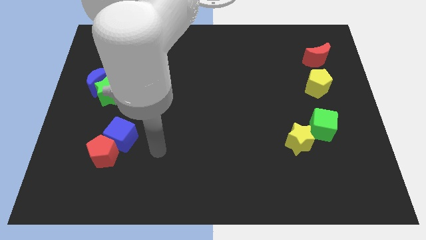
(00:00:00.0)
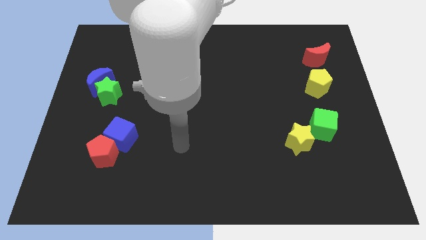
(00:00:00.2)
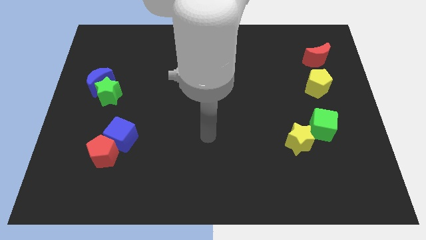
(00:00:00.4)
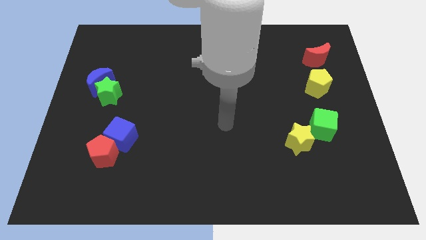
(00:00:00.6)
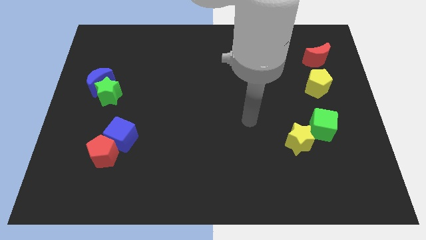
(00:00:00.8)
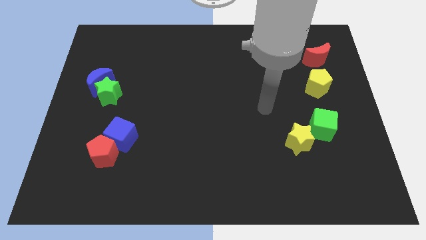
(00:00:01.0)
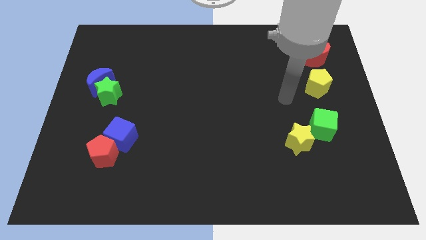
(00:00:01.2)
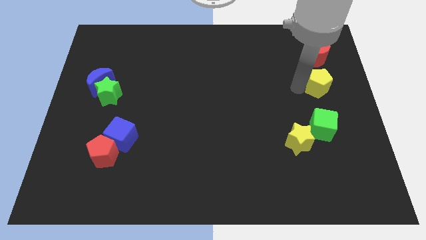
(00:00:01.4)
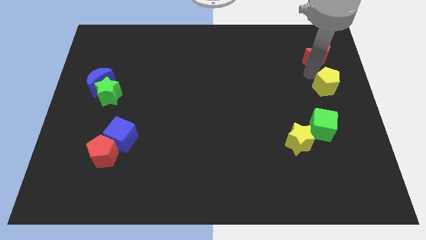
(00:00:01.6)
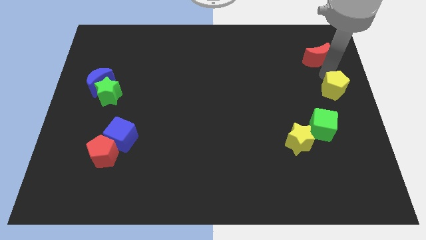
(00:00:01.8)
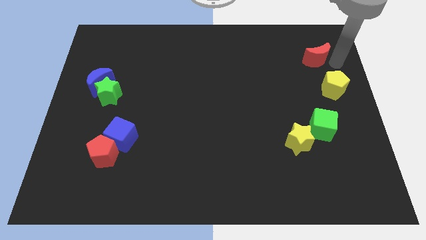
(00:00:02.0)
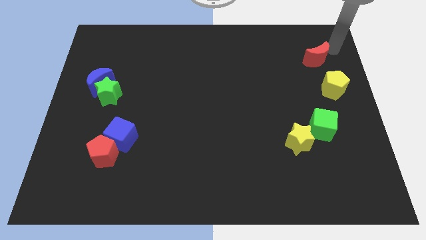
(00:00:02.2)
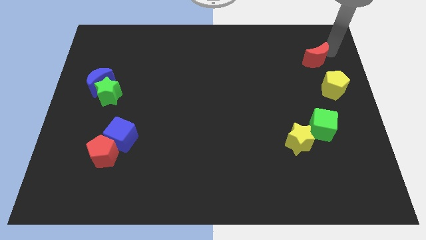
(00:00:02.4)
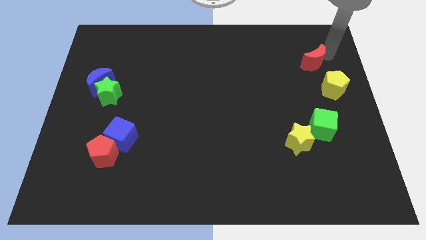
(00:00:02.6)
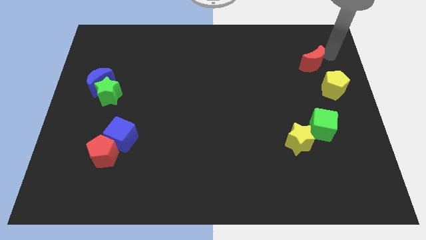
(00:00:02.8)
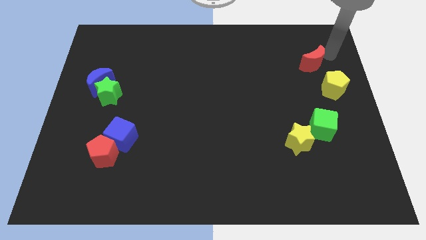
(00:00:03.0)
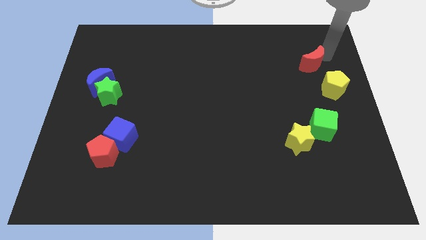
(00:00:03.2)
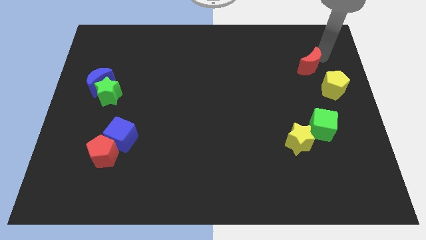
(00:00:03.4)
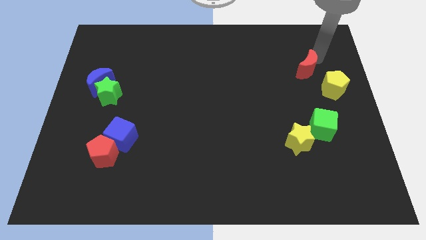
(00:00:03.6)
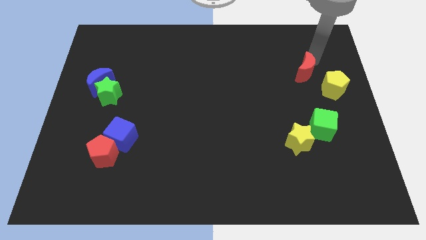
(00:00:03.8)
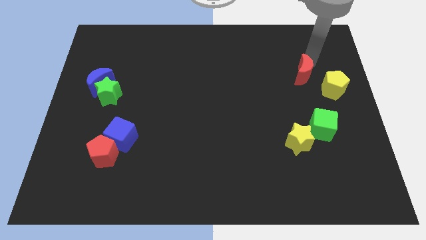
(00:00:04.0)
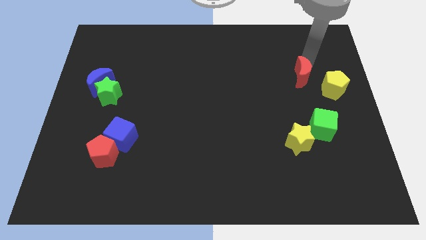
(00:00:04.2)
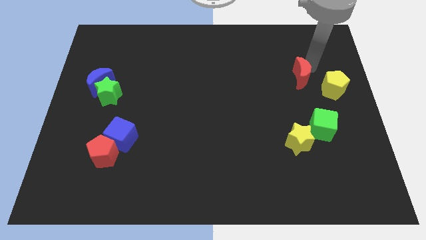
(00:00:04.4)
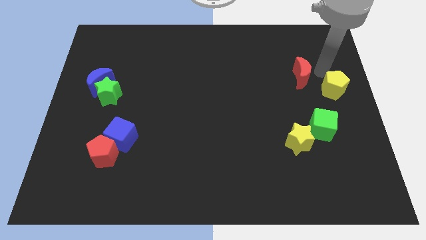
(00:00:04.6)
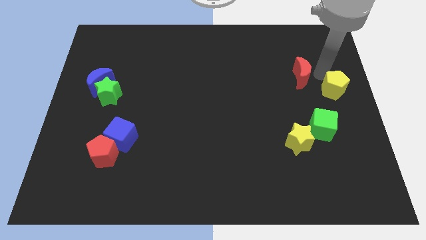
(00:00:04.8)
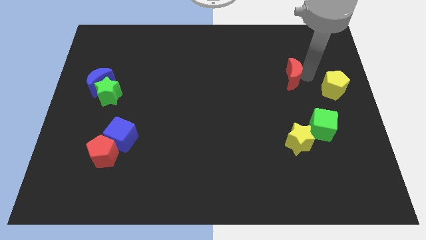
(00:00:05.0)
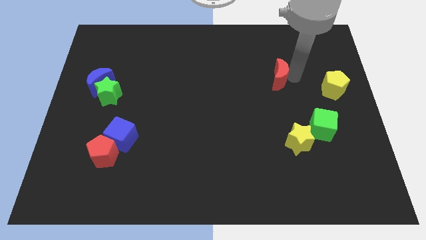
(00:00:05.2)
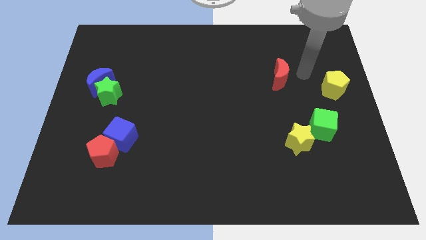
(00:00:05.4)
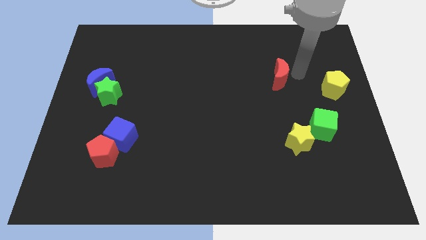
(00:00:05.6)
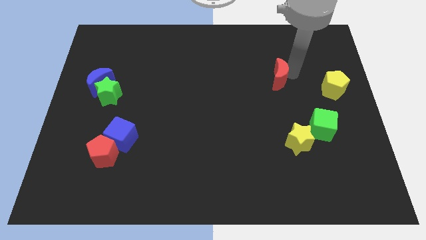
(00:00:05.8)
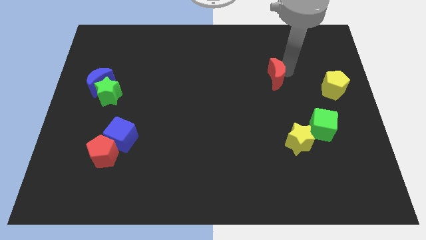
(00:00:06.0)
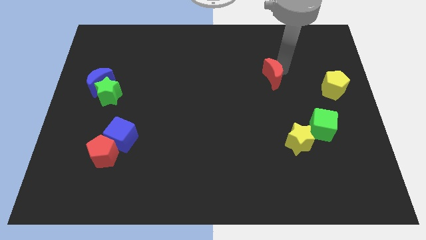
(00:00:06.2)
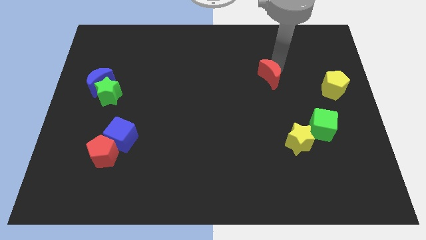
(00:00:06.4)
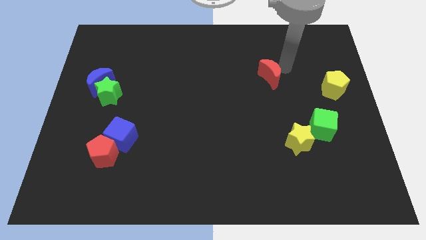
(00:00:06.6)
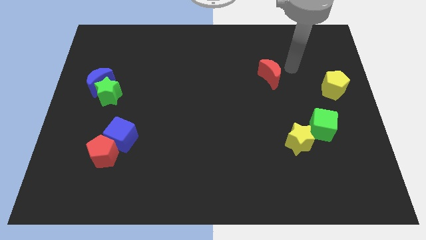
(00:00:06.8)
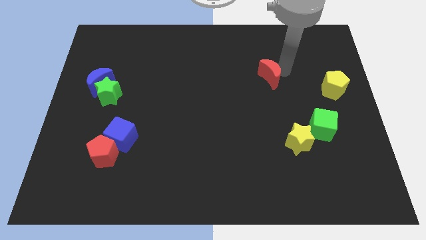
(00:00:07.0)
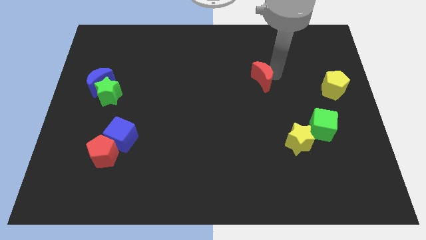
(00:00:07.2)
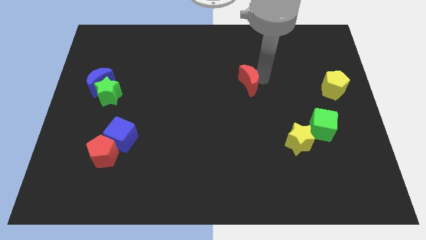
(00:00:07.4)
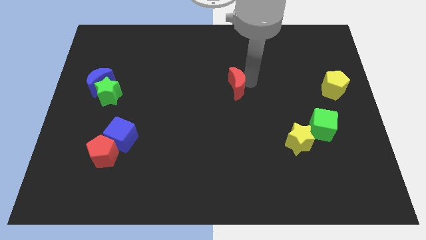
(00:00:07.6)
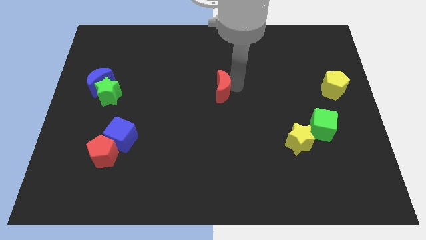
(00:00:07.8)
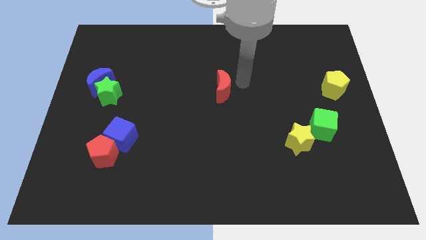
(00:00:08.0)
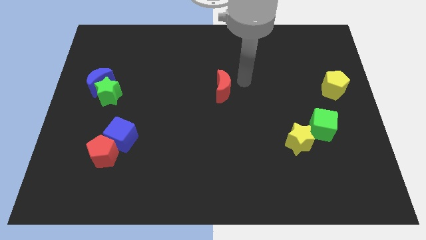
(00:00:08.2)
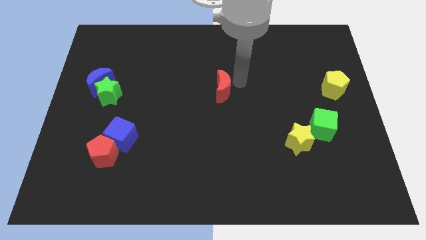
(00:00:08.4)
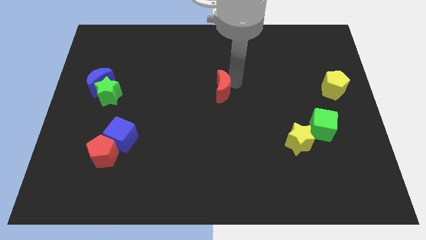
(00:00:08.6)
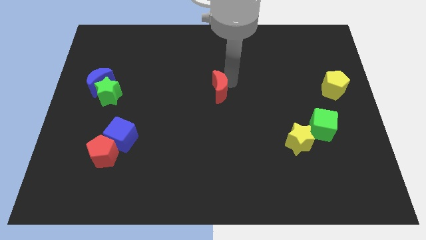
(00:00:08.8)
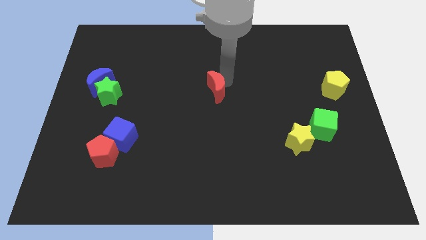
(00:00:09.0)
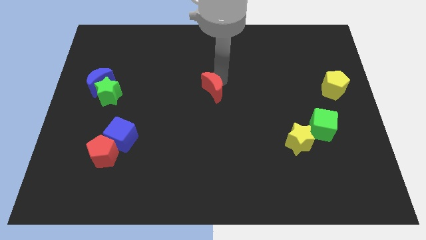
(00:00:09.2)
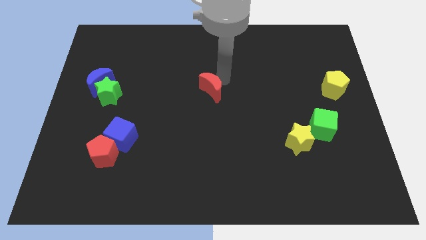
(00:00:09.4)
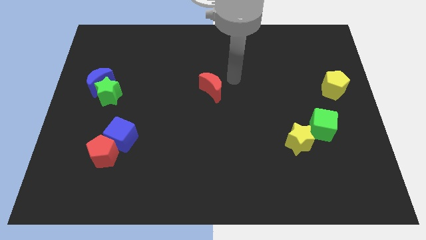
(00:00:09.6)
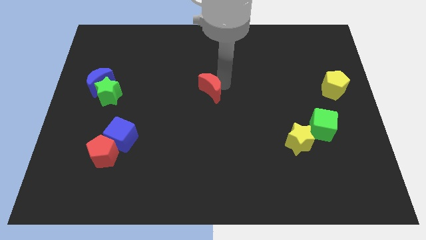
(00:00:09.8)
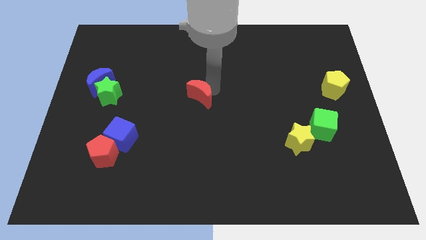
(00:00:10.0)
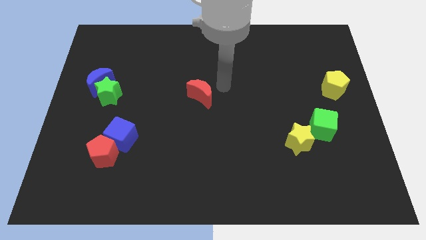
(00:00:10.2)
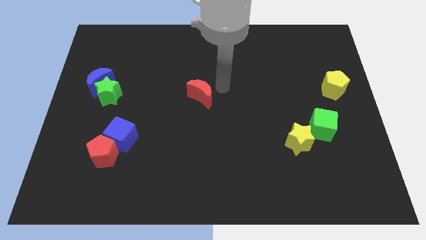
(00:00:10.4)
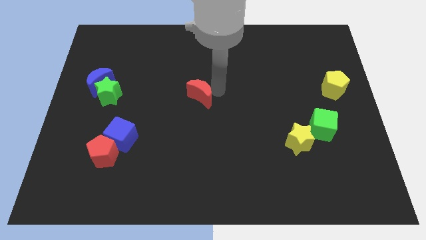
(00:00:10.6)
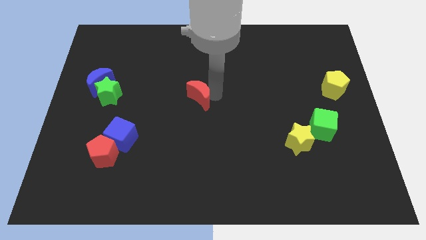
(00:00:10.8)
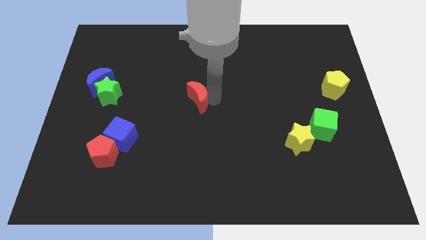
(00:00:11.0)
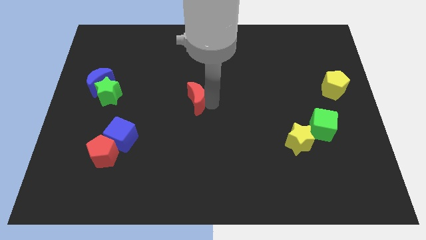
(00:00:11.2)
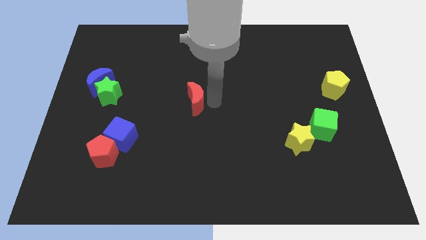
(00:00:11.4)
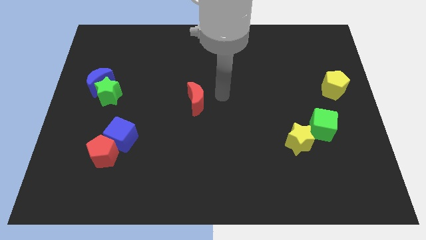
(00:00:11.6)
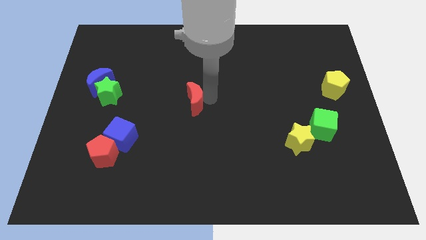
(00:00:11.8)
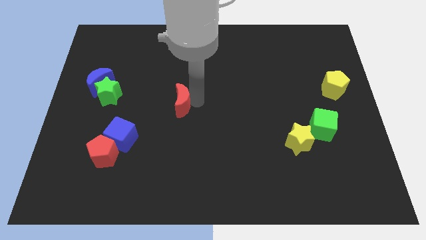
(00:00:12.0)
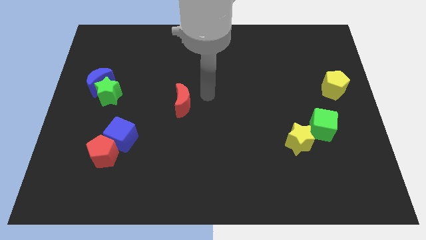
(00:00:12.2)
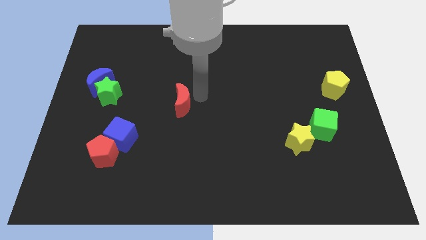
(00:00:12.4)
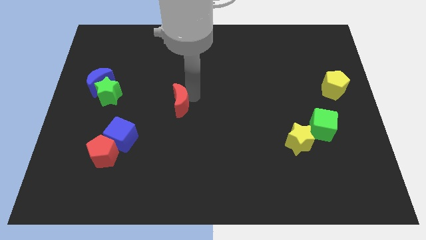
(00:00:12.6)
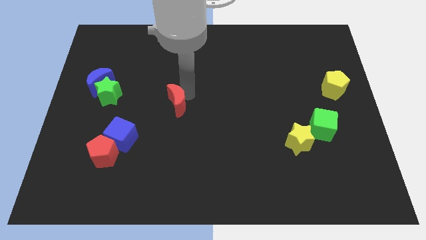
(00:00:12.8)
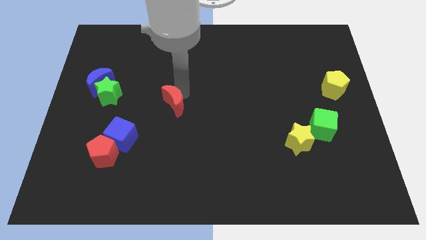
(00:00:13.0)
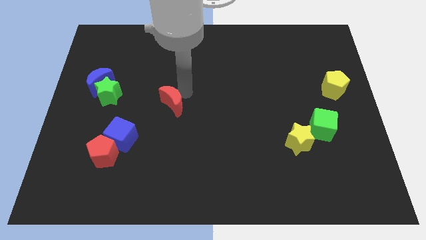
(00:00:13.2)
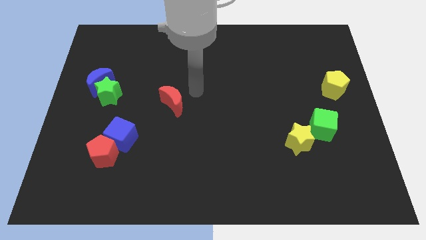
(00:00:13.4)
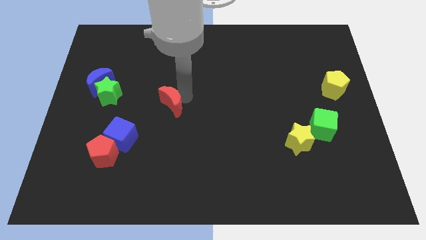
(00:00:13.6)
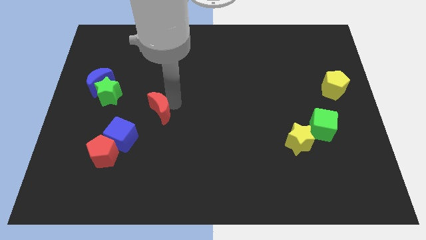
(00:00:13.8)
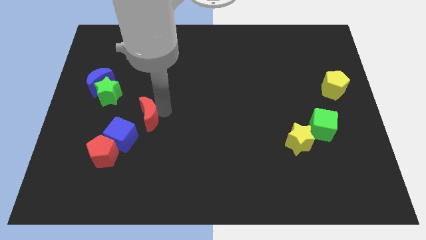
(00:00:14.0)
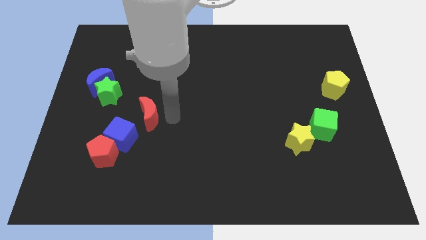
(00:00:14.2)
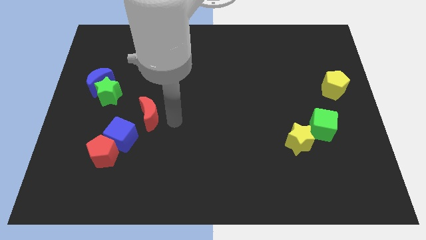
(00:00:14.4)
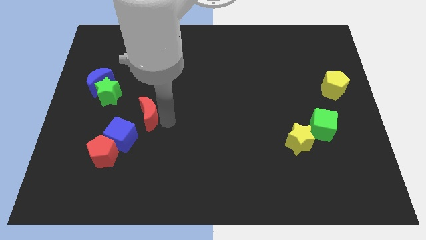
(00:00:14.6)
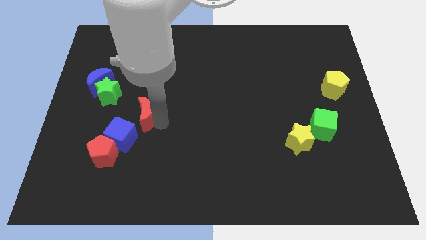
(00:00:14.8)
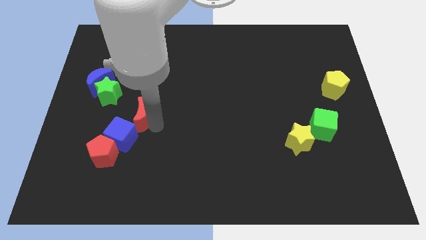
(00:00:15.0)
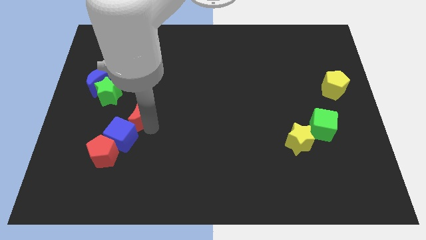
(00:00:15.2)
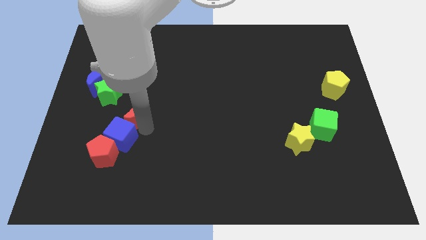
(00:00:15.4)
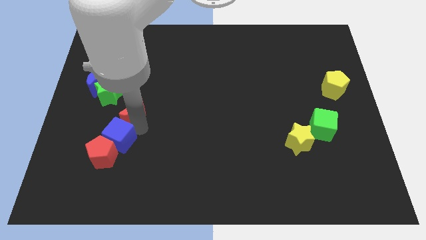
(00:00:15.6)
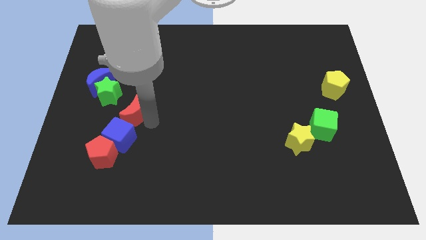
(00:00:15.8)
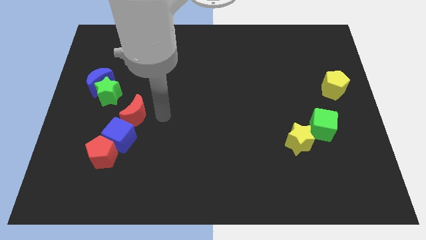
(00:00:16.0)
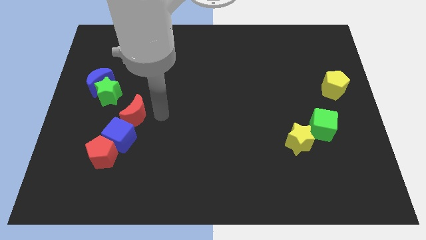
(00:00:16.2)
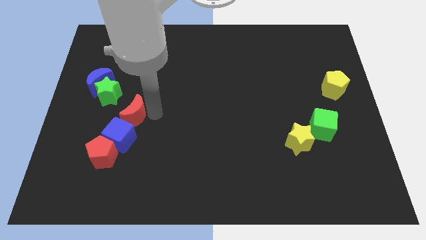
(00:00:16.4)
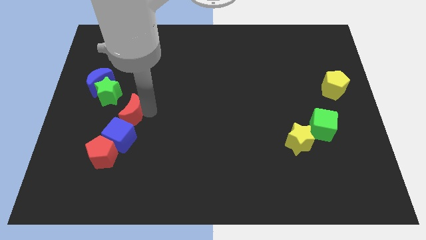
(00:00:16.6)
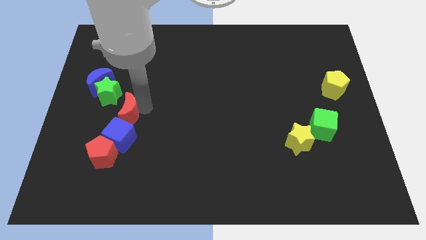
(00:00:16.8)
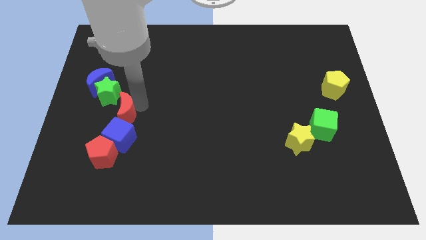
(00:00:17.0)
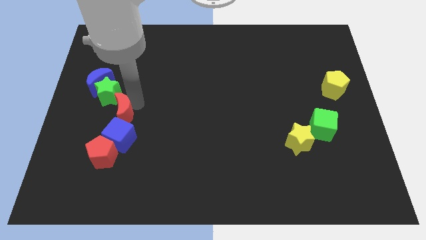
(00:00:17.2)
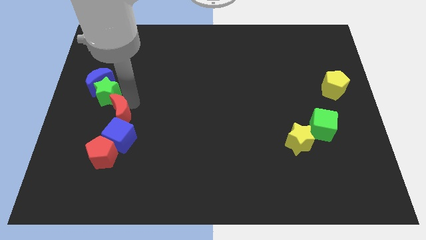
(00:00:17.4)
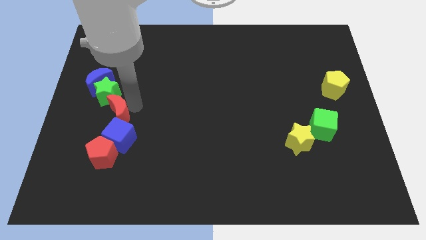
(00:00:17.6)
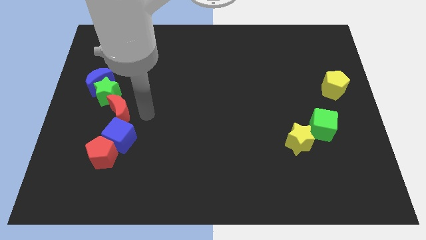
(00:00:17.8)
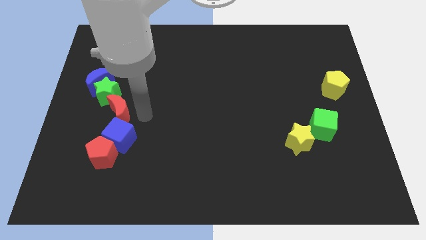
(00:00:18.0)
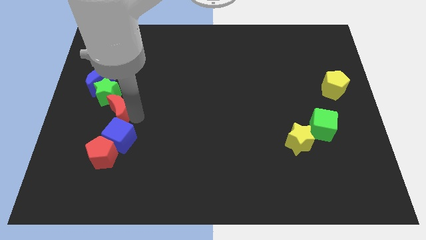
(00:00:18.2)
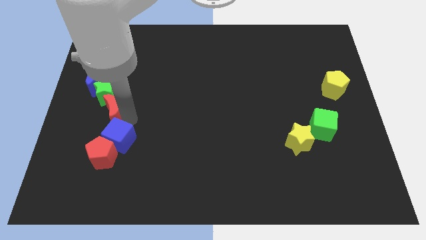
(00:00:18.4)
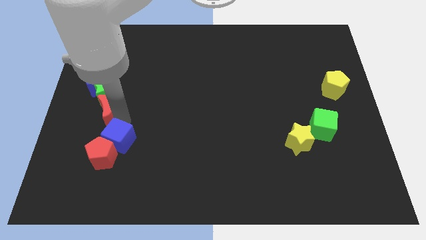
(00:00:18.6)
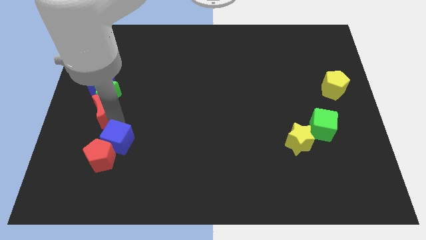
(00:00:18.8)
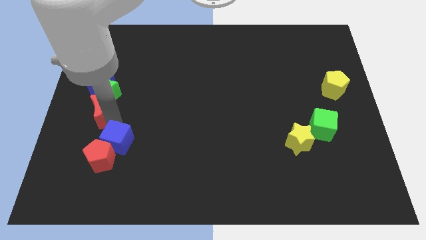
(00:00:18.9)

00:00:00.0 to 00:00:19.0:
put the red moon to the left side
